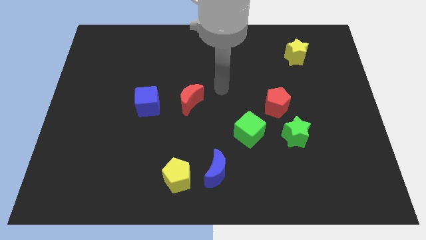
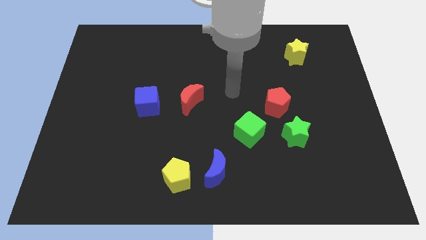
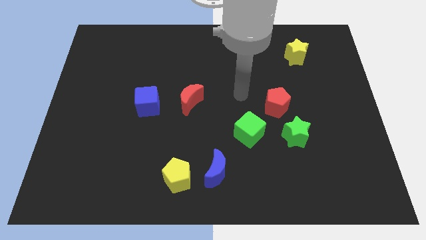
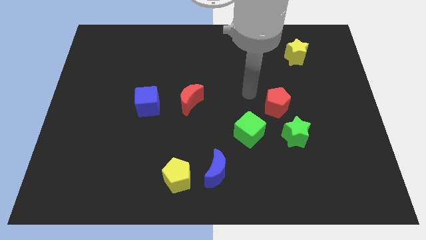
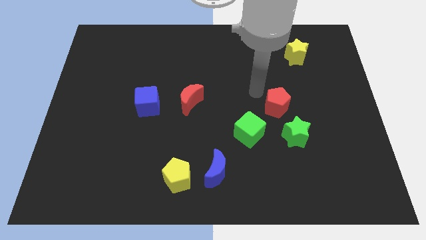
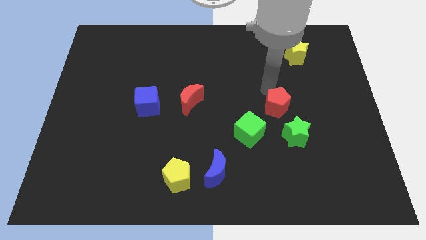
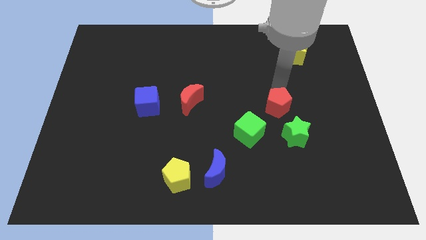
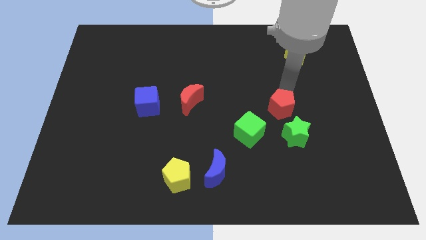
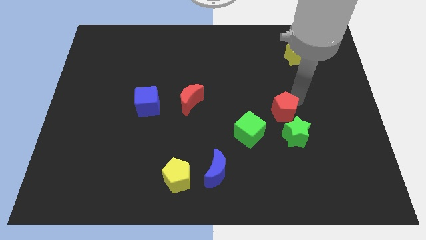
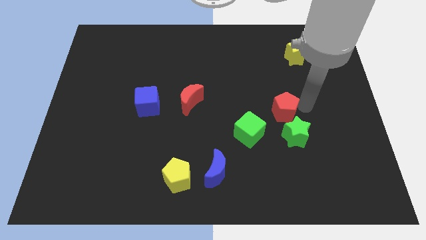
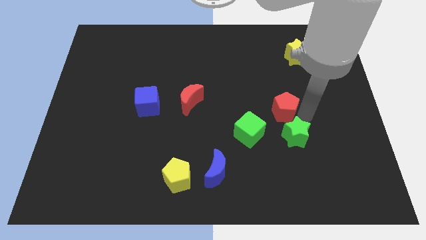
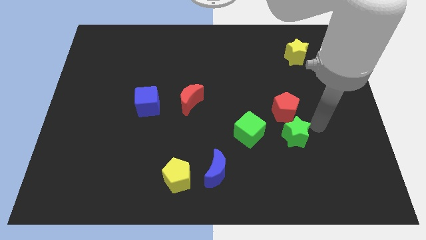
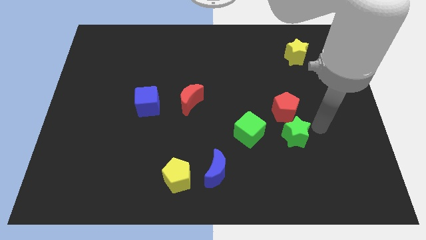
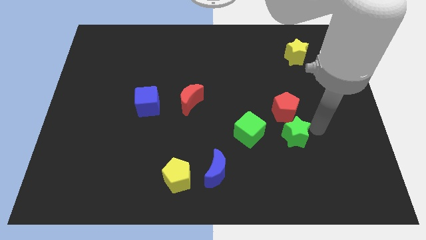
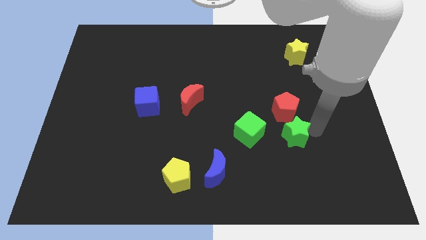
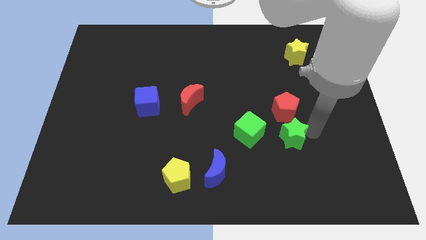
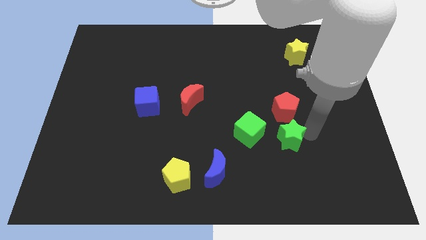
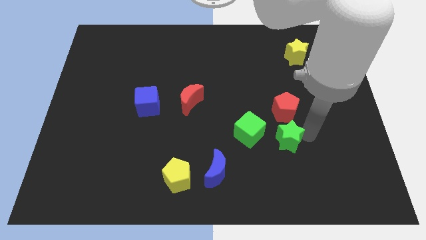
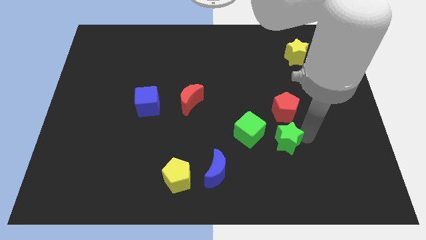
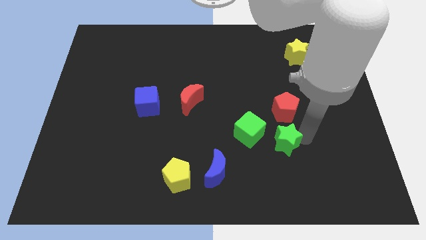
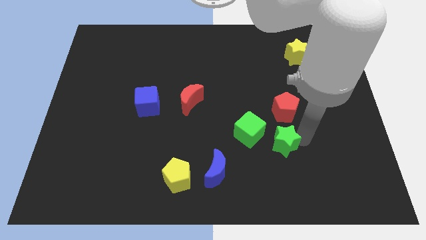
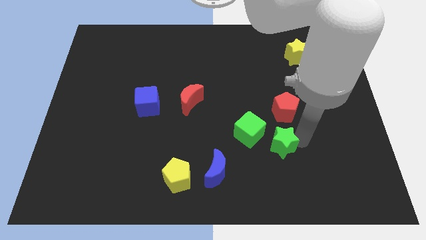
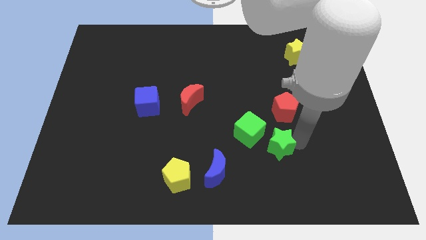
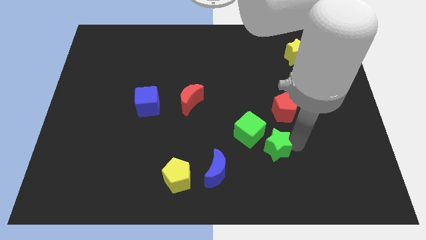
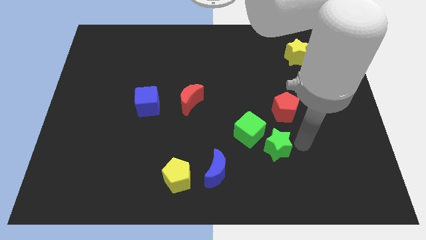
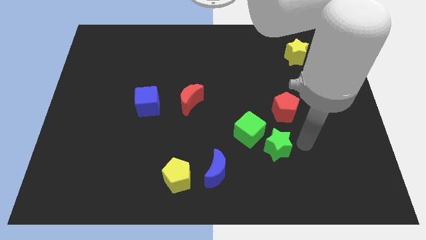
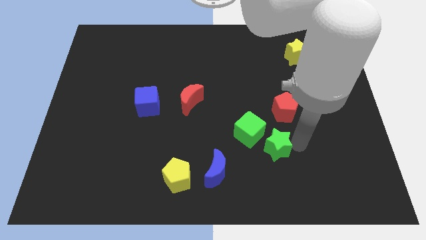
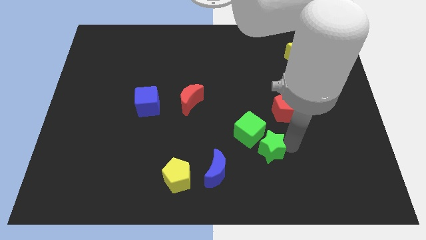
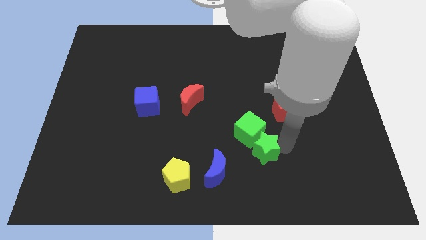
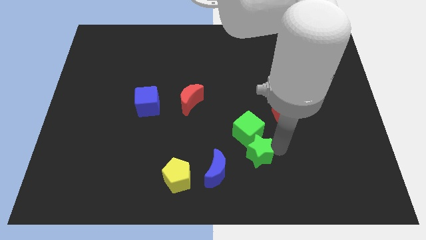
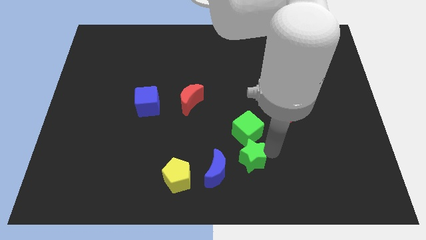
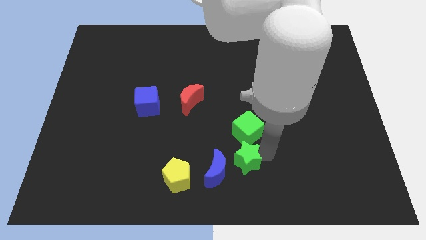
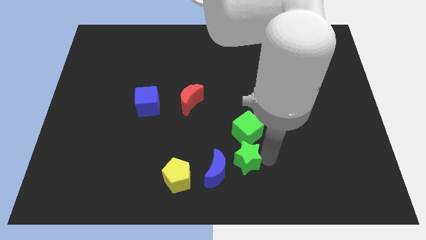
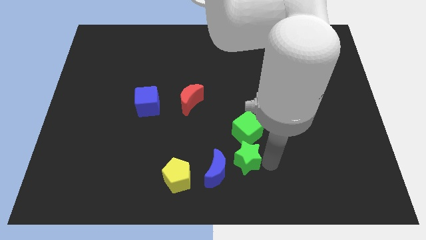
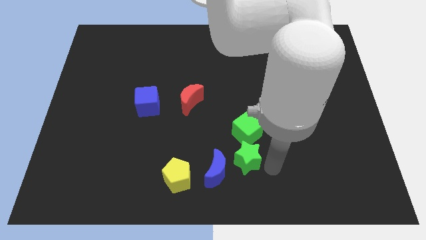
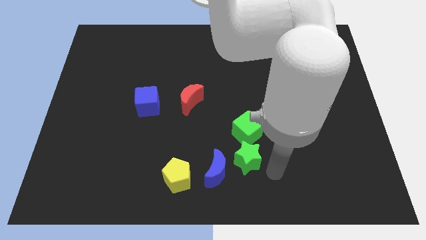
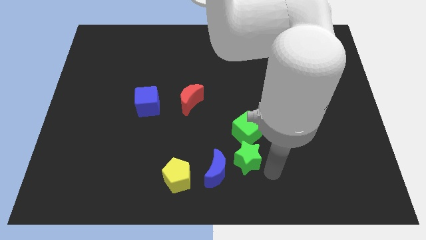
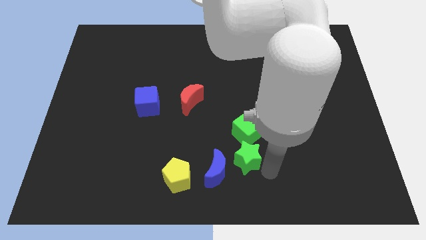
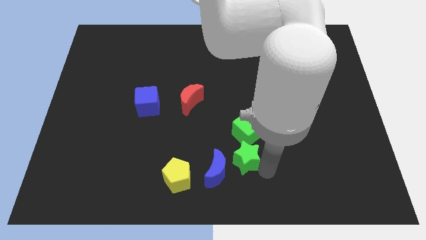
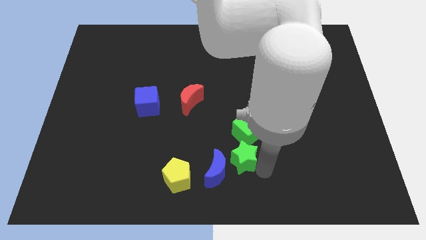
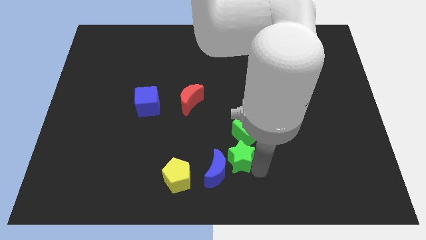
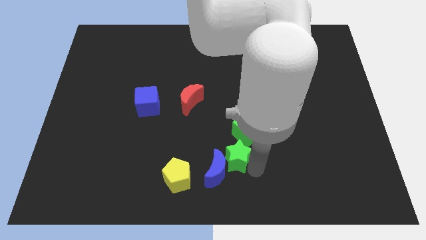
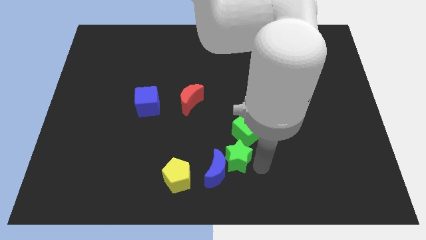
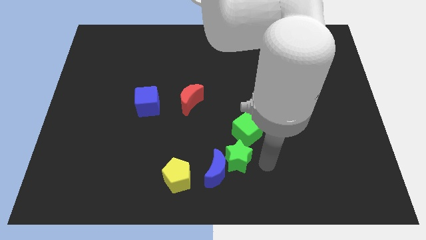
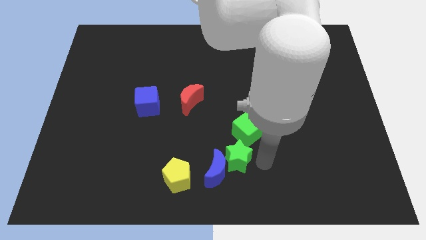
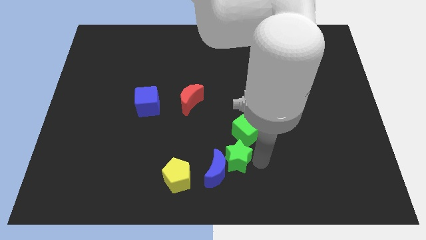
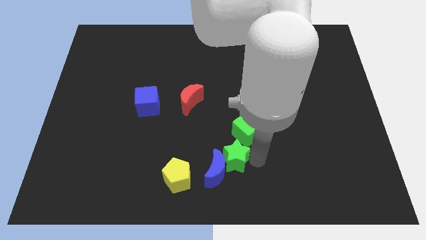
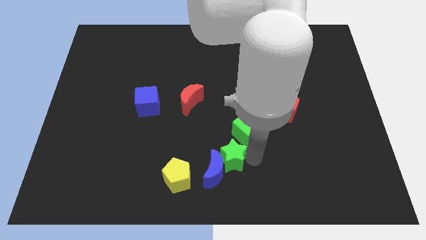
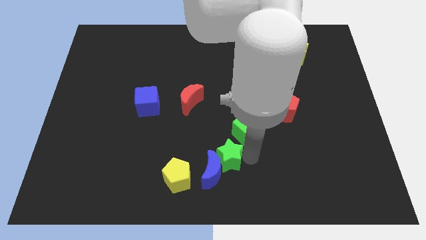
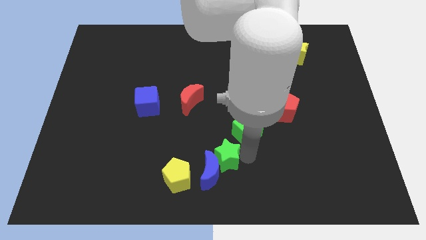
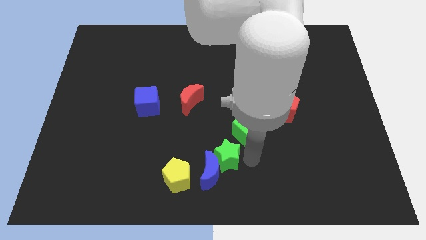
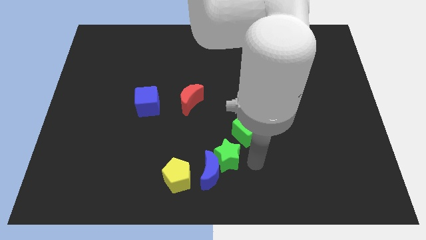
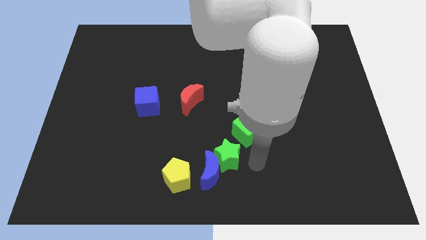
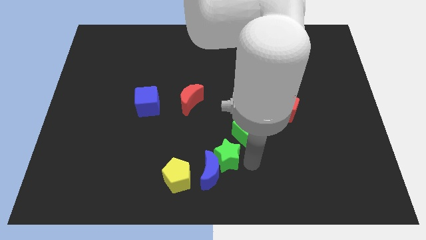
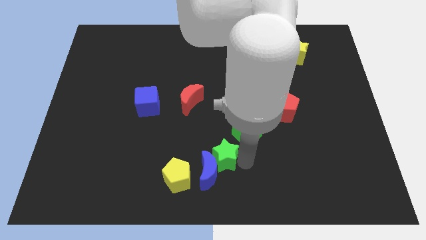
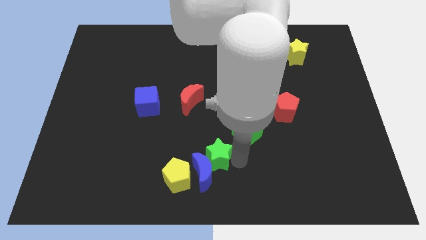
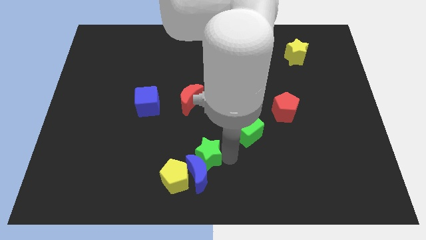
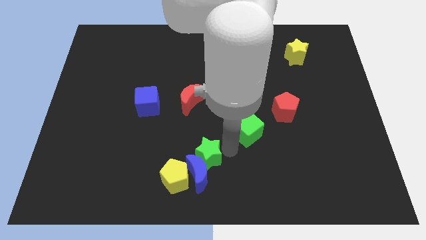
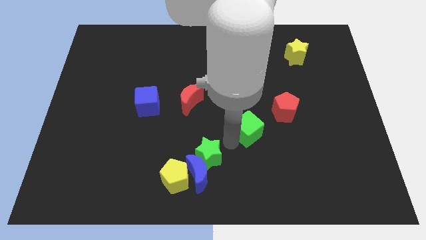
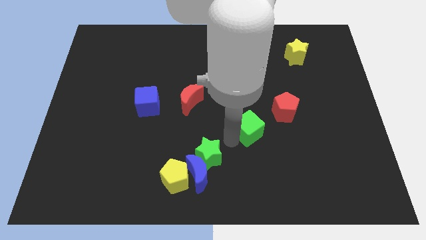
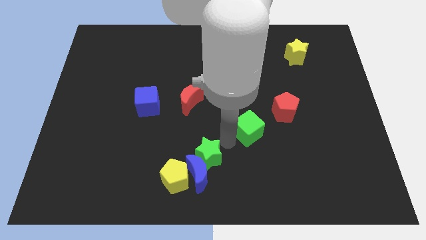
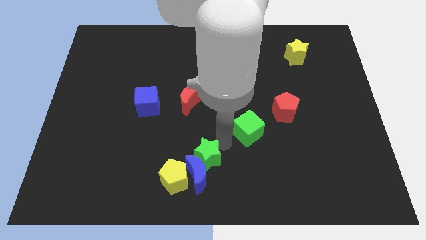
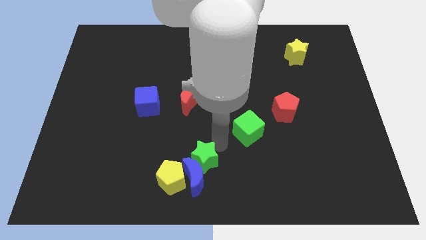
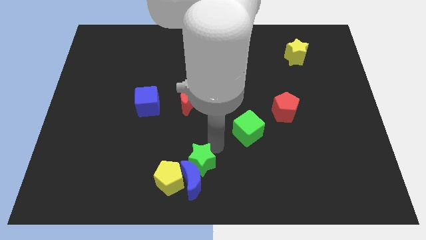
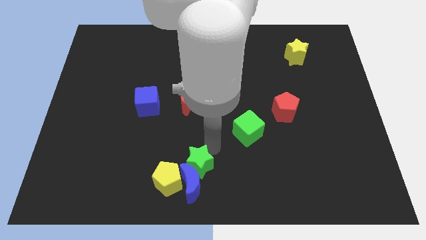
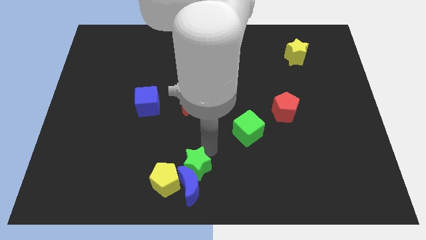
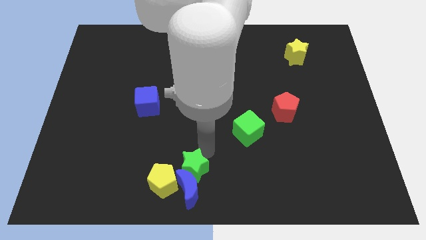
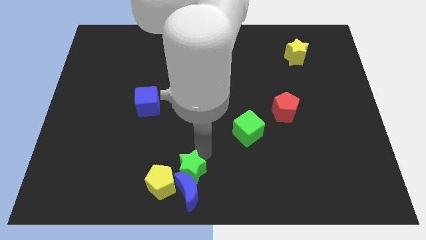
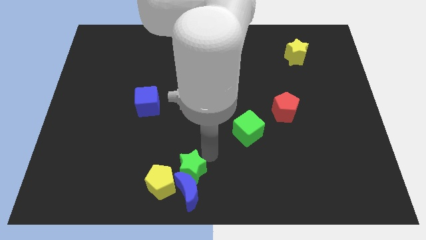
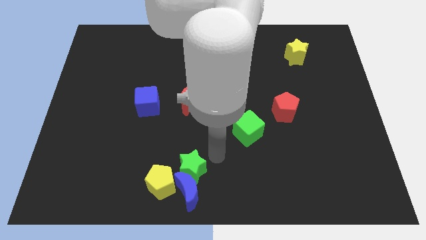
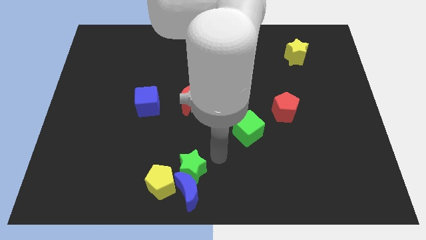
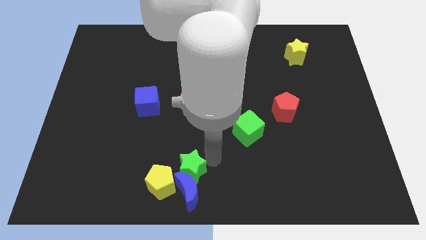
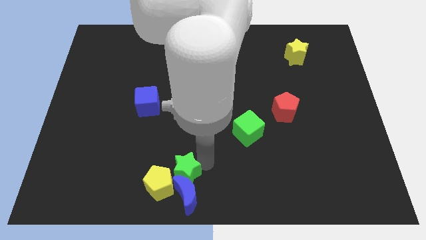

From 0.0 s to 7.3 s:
push the green star to the yellow pentagon
